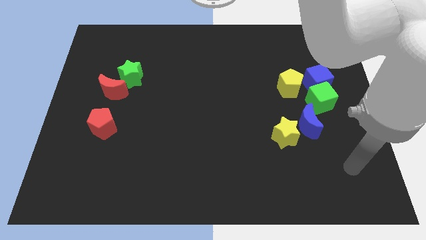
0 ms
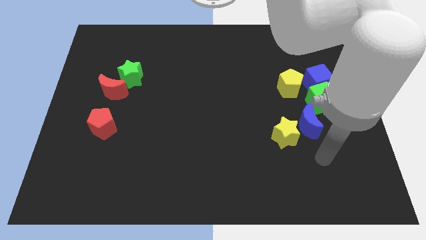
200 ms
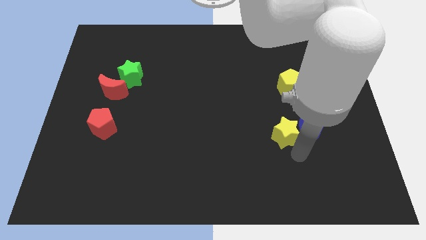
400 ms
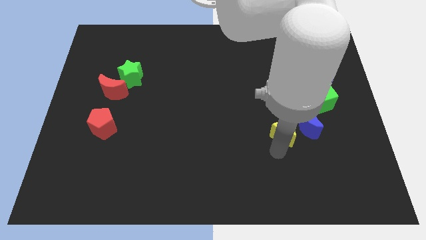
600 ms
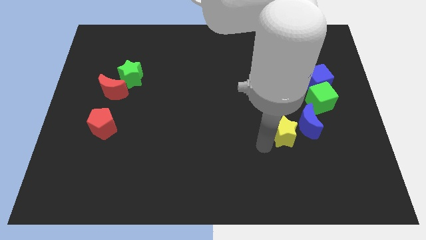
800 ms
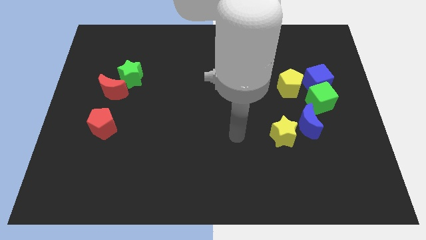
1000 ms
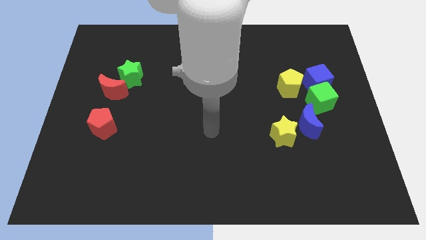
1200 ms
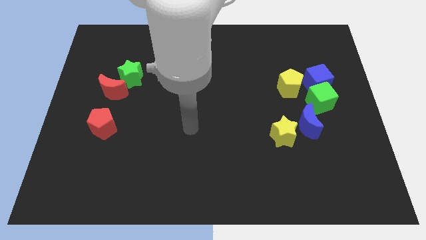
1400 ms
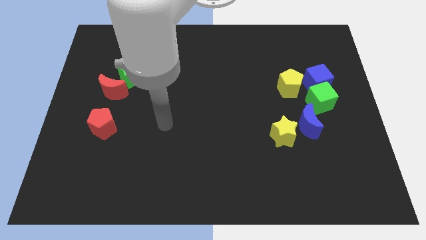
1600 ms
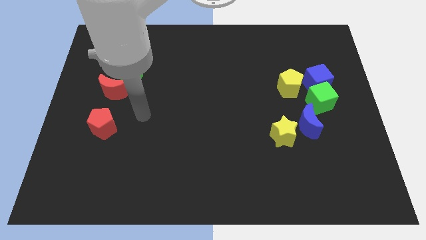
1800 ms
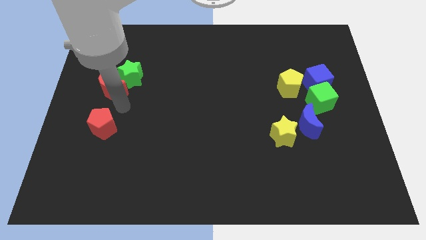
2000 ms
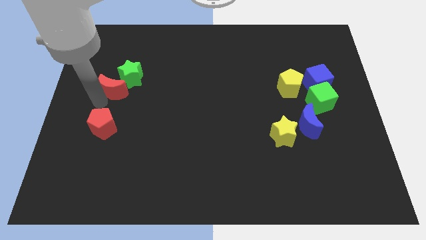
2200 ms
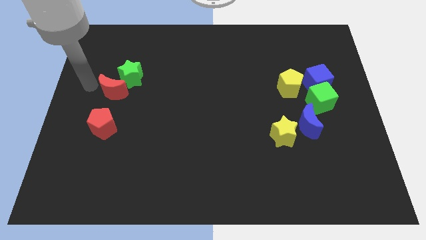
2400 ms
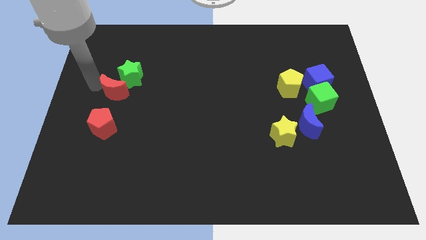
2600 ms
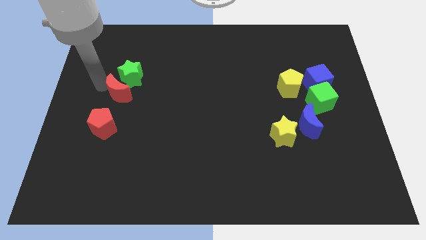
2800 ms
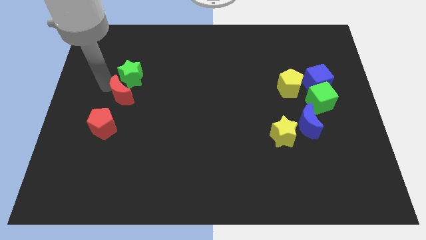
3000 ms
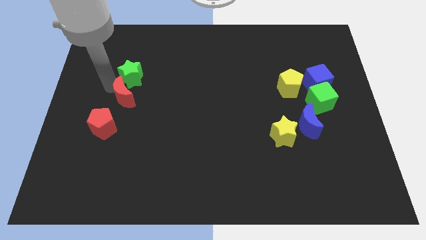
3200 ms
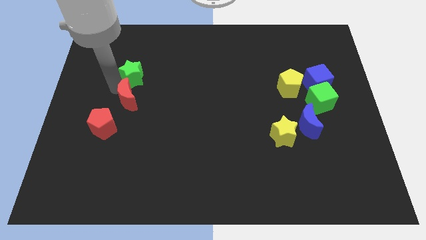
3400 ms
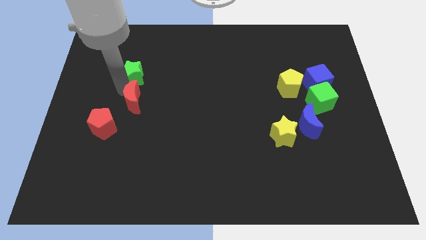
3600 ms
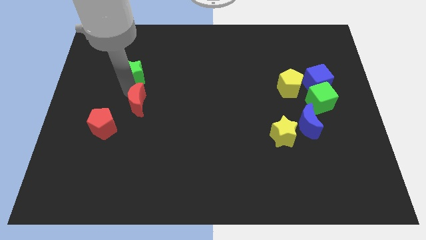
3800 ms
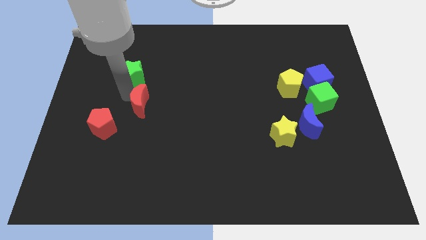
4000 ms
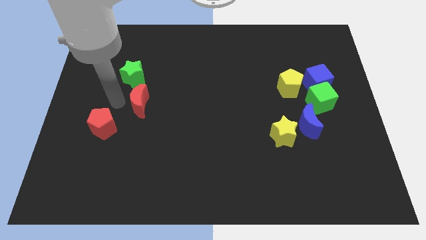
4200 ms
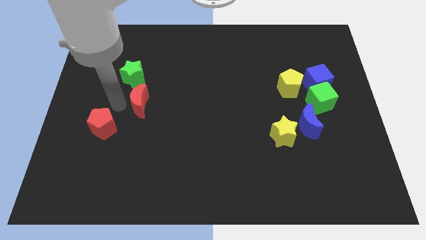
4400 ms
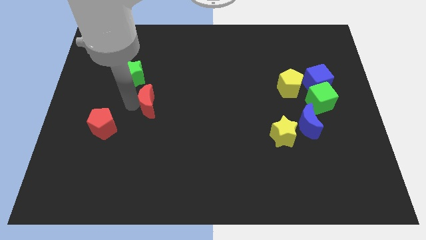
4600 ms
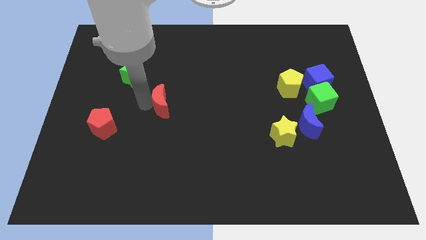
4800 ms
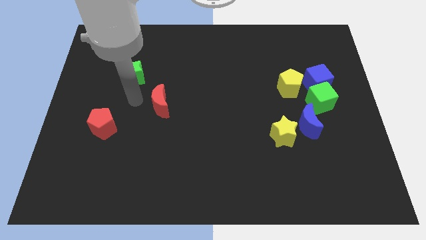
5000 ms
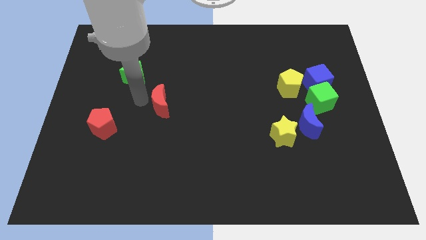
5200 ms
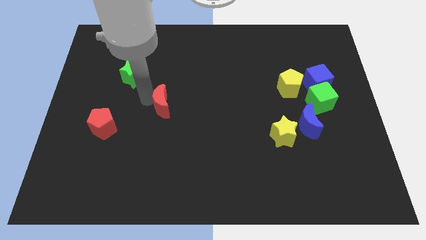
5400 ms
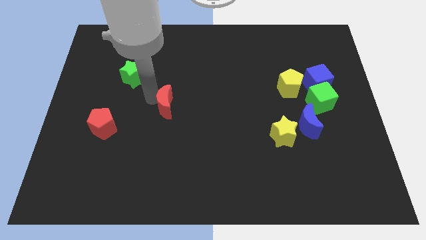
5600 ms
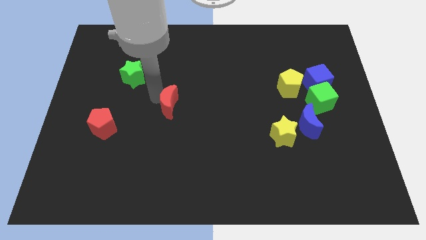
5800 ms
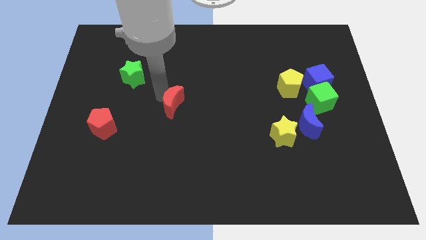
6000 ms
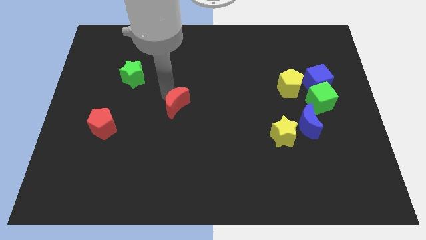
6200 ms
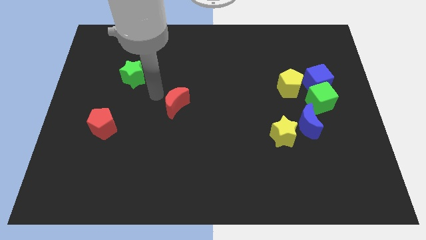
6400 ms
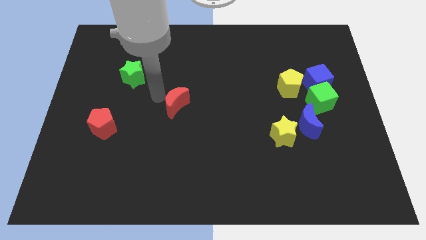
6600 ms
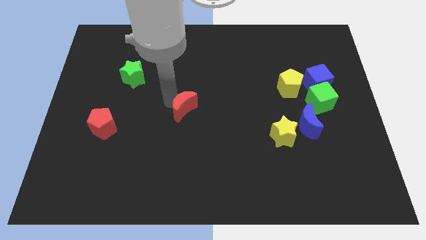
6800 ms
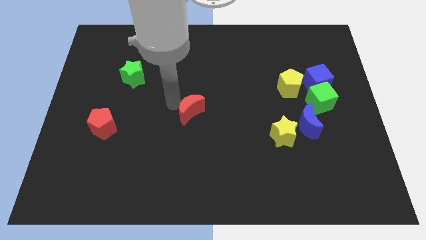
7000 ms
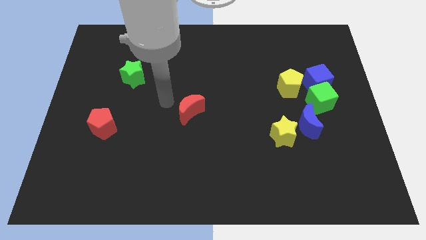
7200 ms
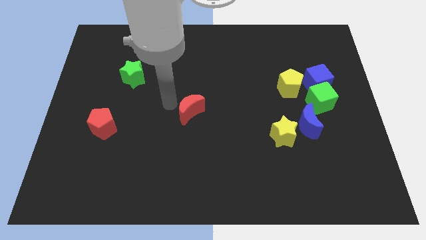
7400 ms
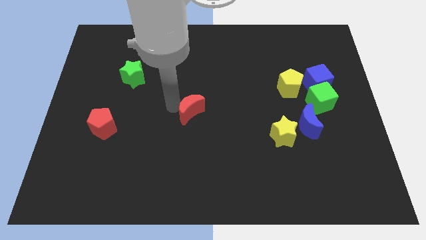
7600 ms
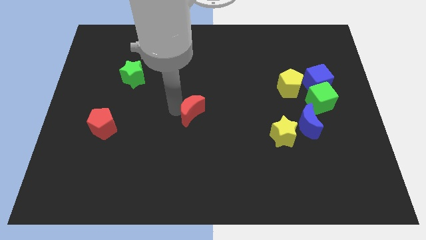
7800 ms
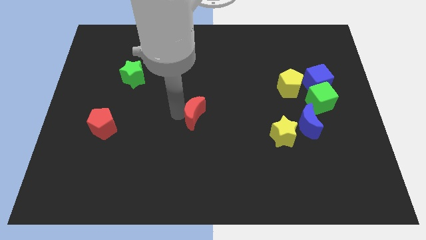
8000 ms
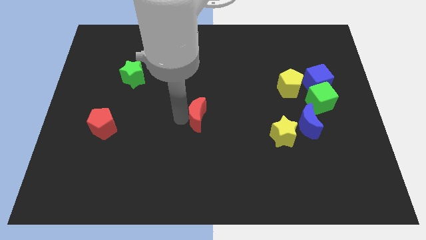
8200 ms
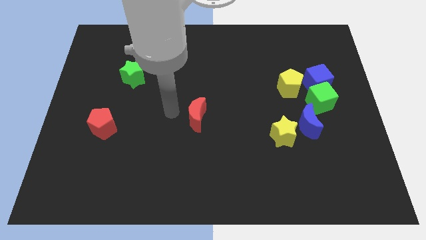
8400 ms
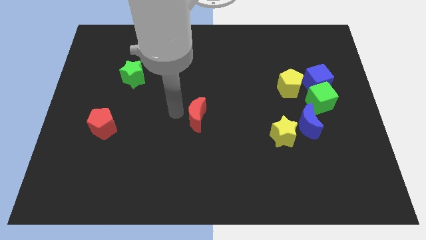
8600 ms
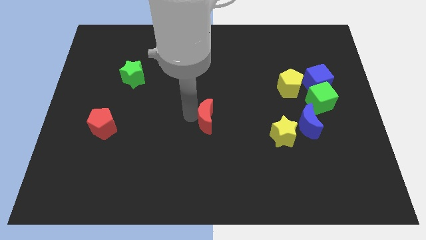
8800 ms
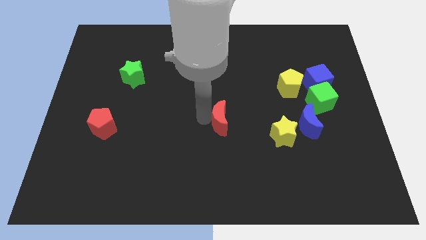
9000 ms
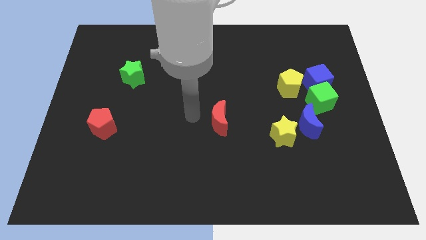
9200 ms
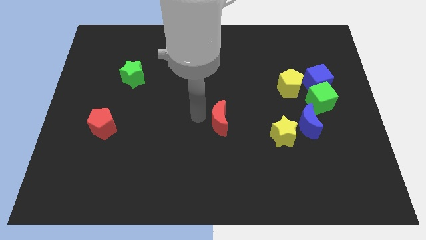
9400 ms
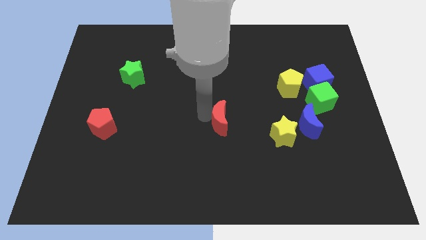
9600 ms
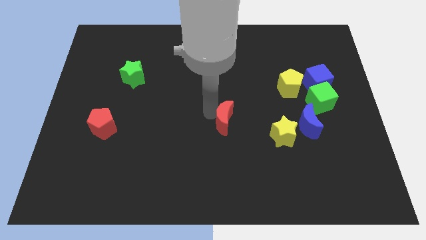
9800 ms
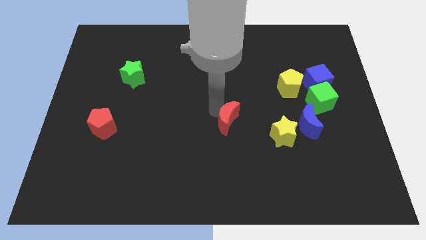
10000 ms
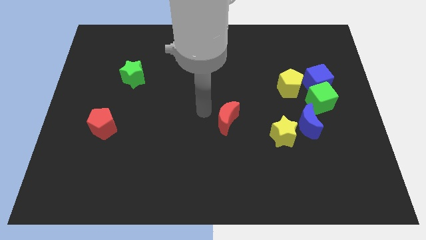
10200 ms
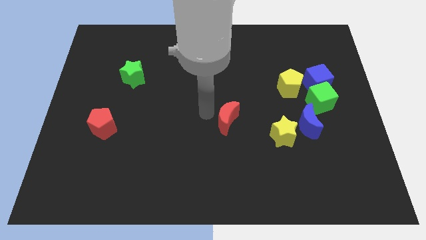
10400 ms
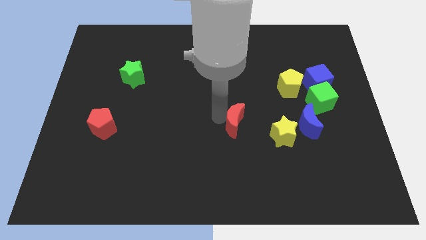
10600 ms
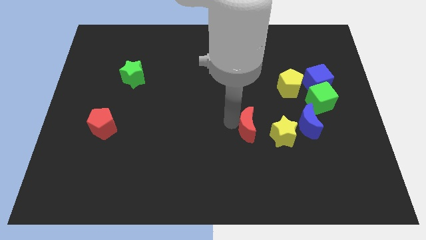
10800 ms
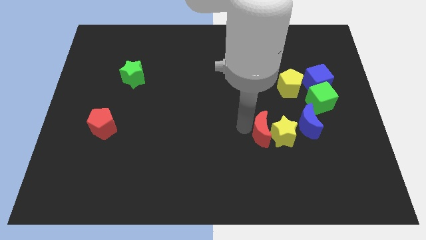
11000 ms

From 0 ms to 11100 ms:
slide the red moon next to the yellow star

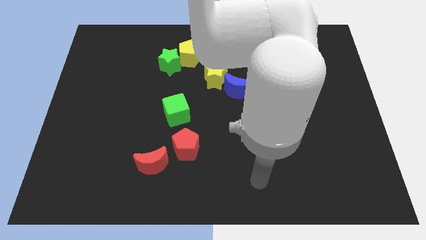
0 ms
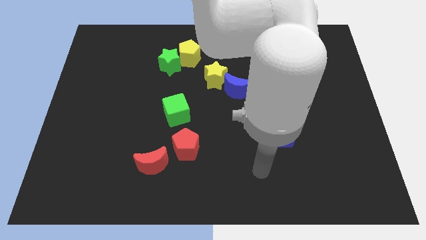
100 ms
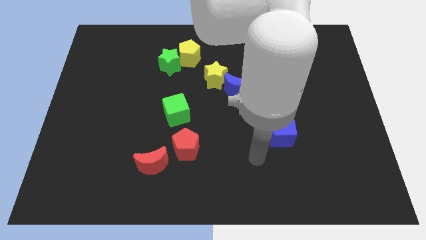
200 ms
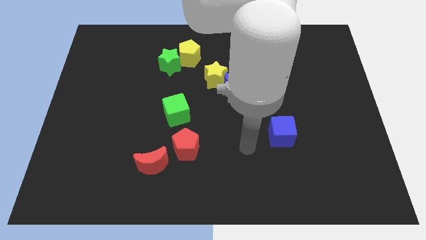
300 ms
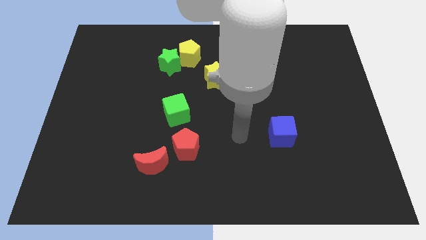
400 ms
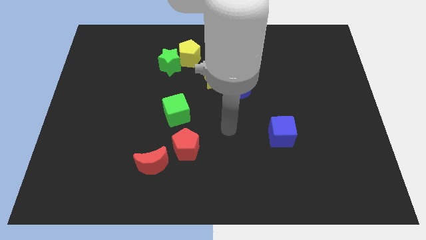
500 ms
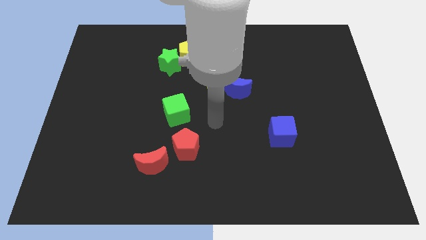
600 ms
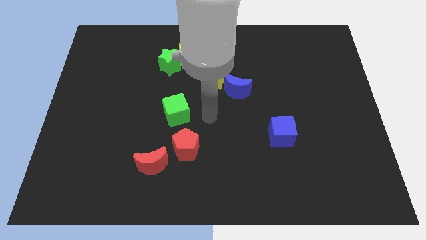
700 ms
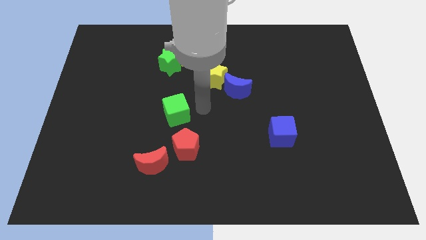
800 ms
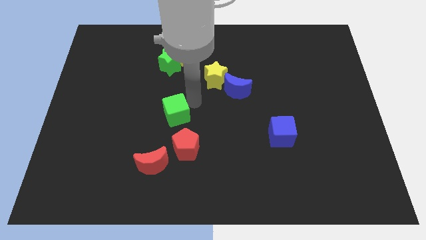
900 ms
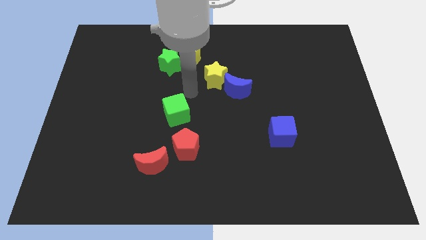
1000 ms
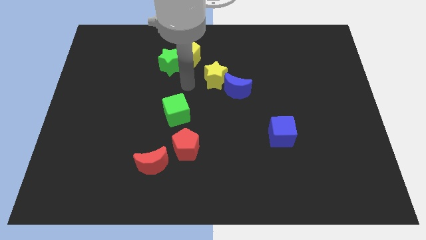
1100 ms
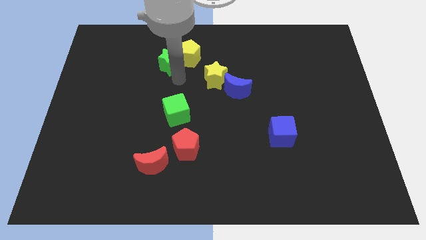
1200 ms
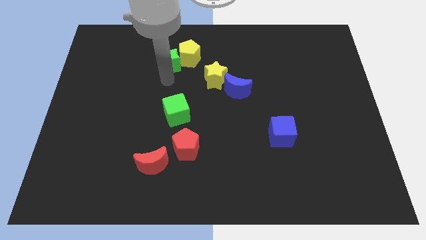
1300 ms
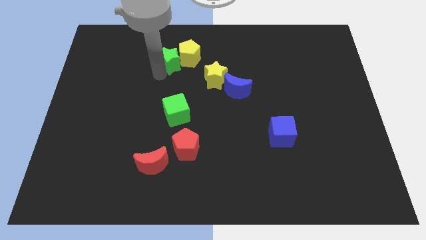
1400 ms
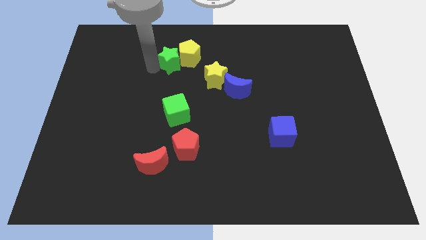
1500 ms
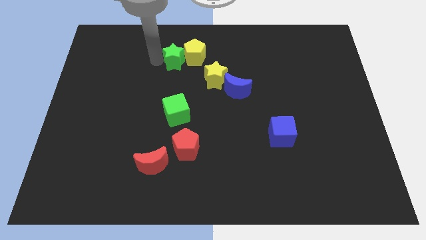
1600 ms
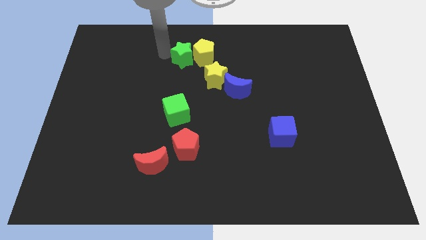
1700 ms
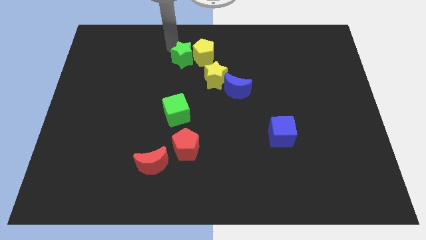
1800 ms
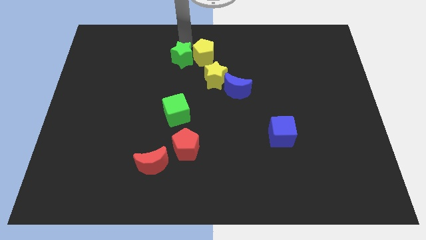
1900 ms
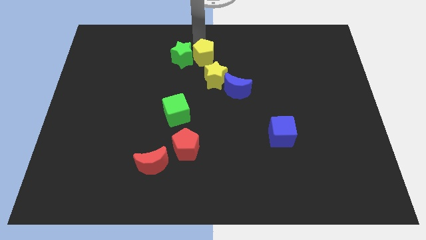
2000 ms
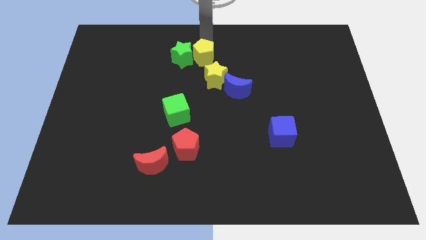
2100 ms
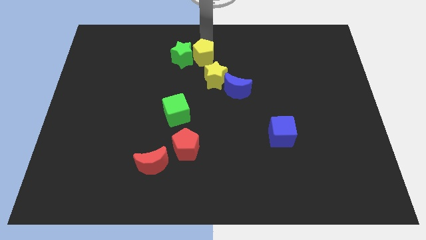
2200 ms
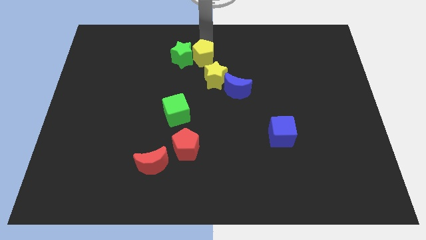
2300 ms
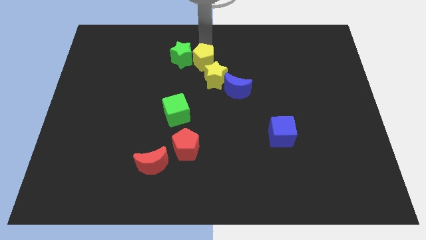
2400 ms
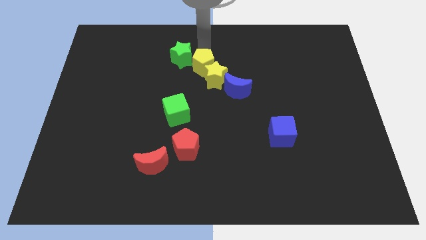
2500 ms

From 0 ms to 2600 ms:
slide the yellow pentagon to the yellow star
